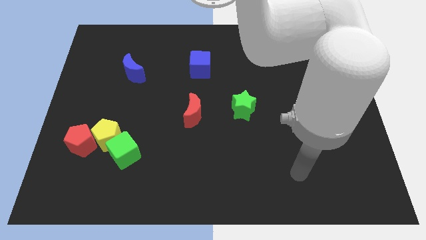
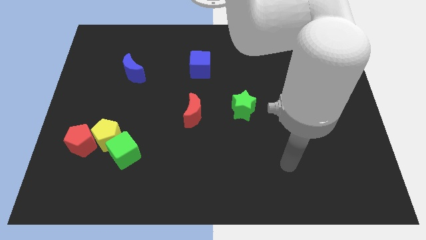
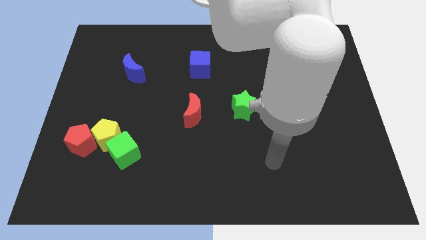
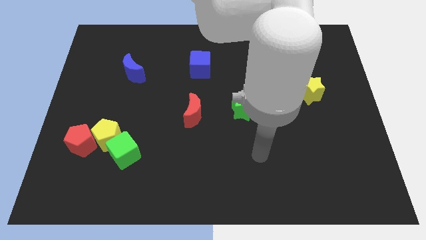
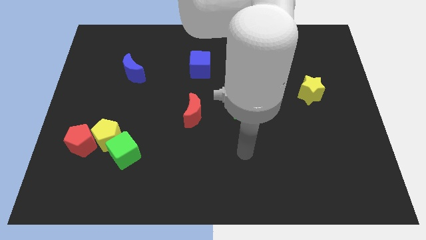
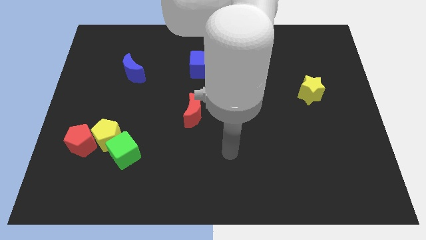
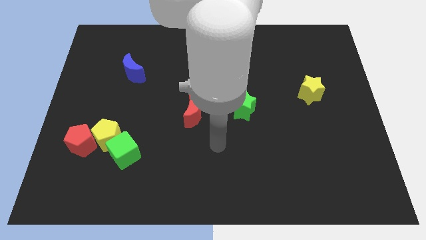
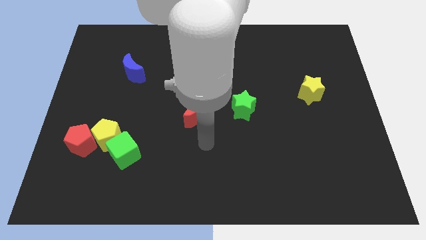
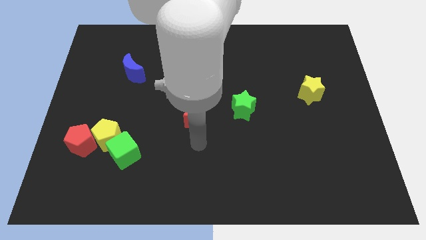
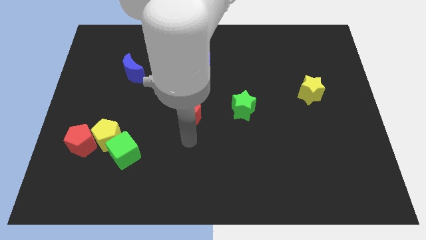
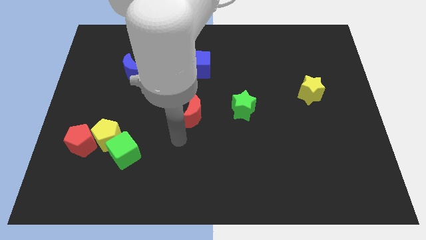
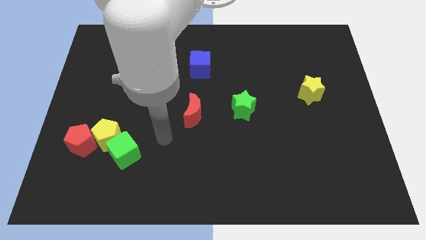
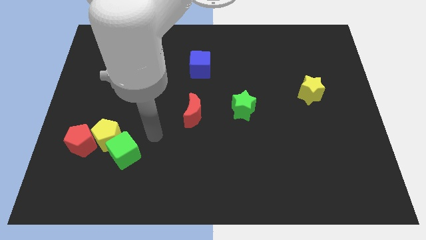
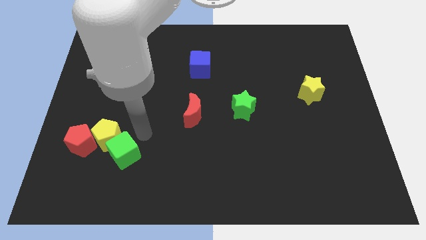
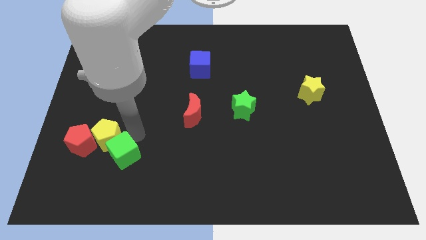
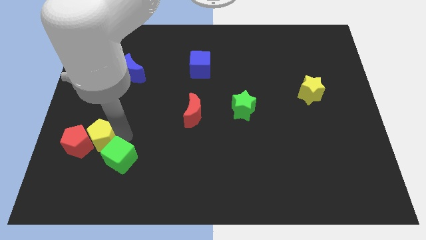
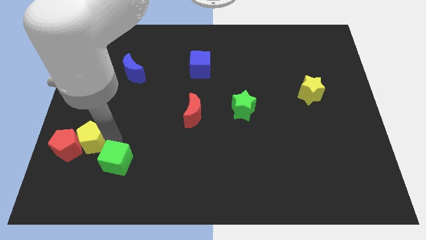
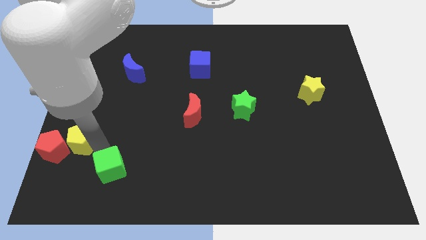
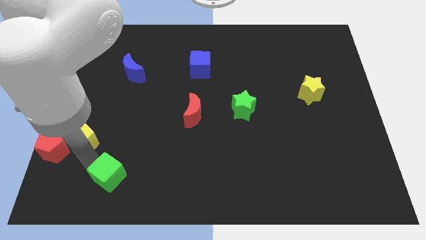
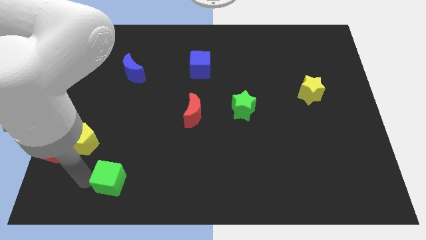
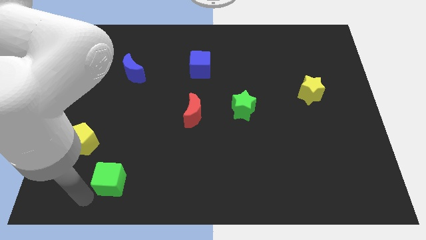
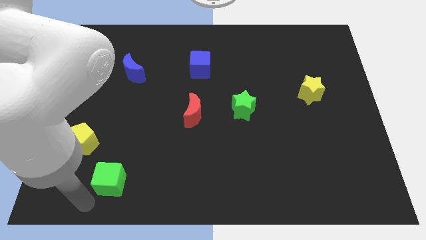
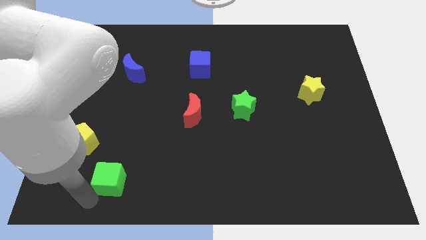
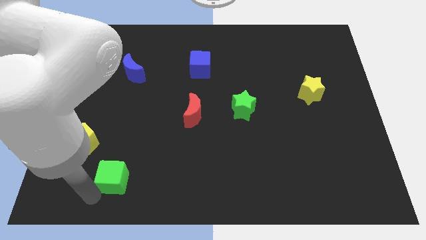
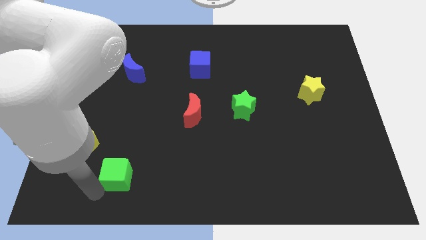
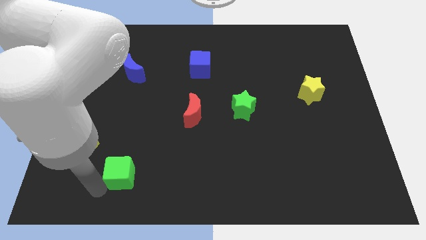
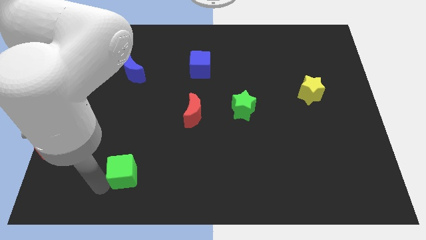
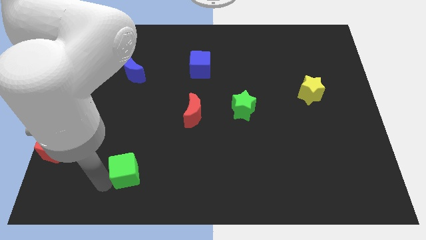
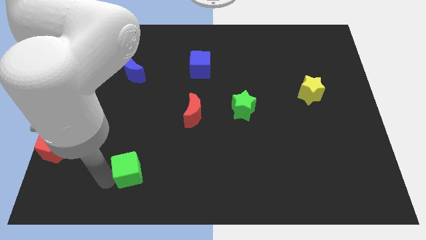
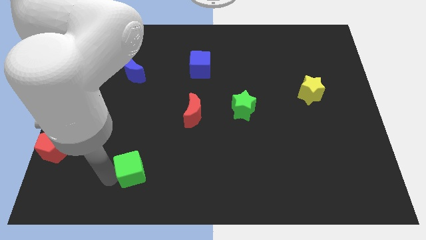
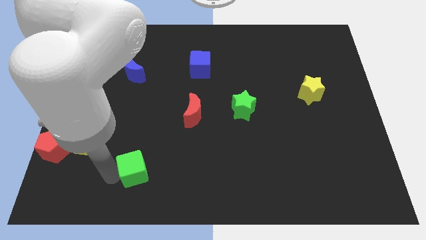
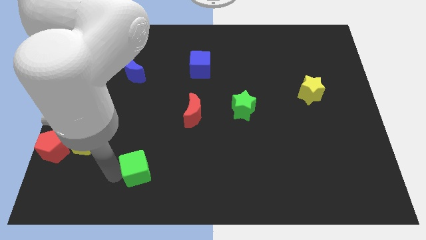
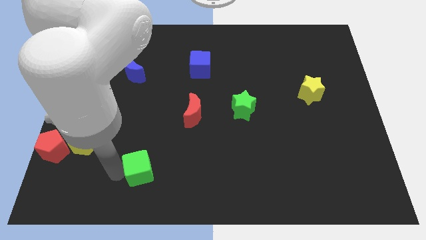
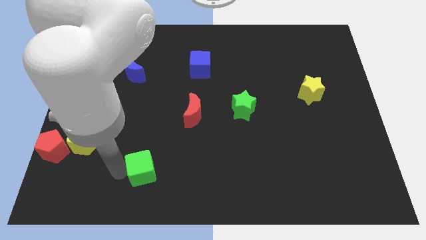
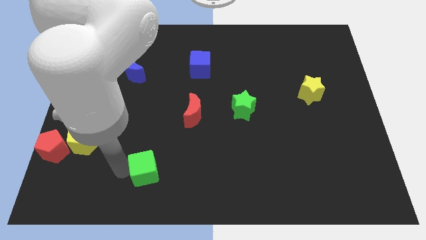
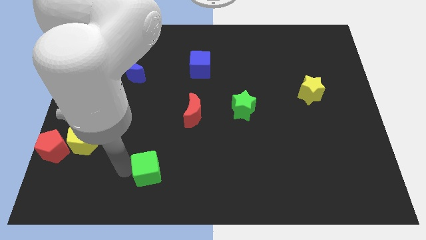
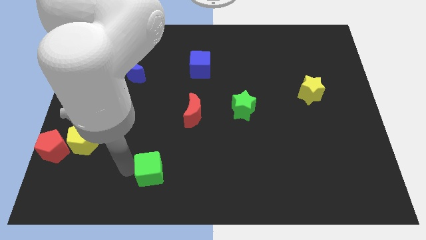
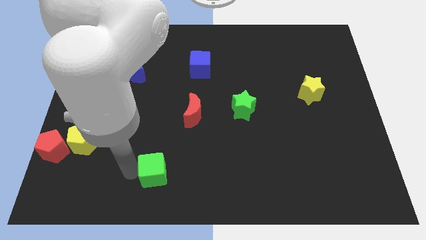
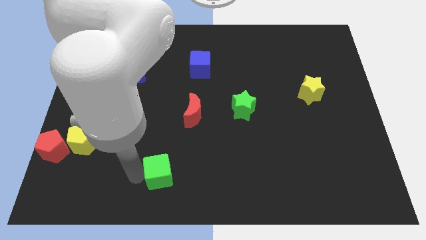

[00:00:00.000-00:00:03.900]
move the green cube a little right

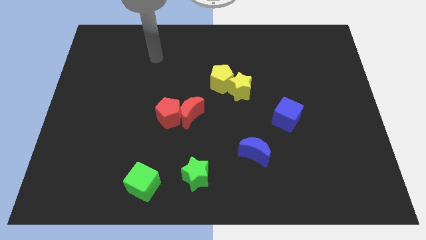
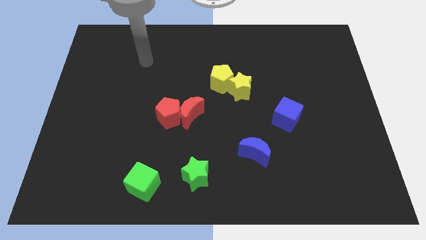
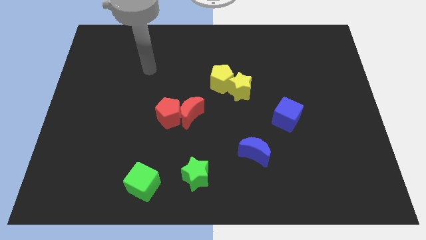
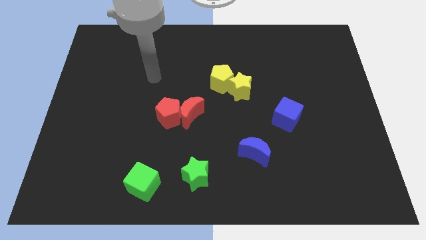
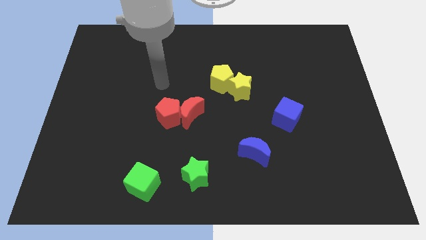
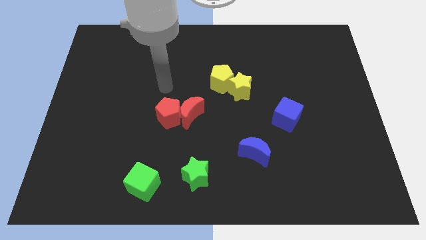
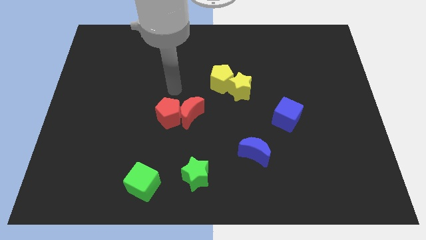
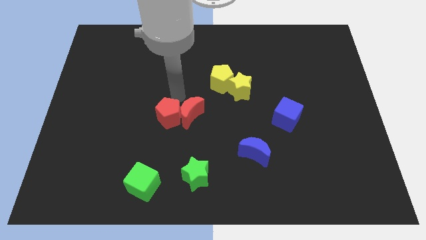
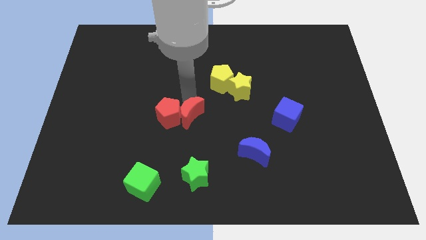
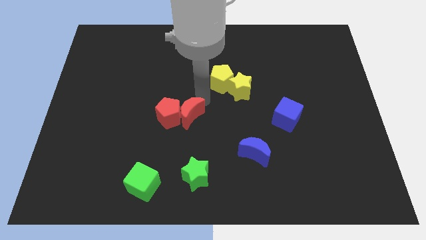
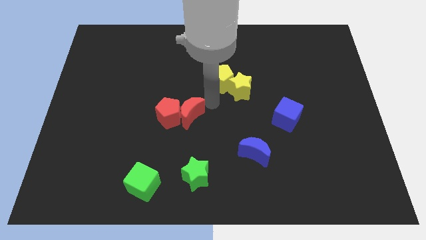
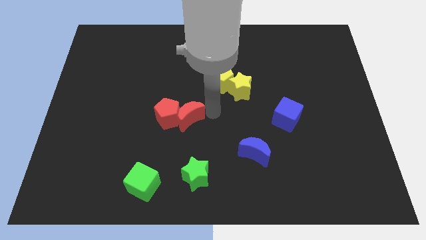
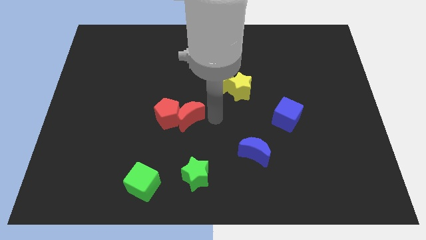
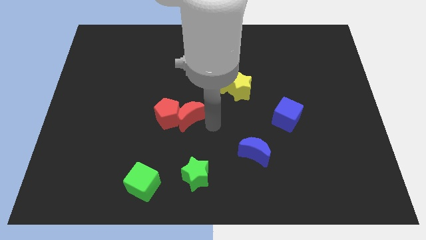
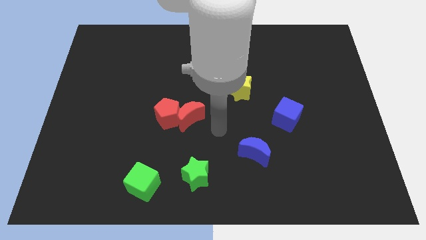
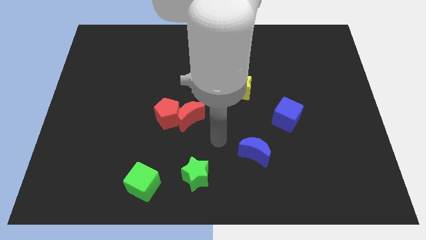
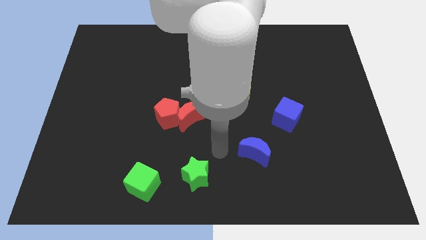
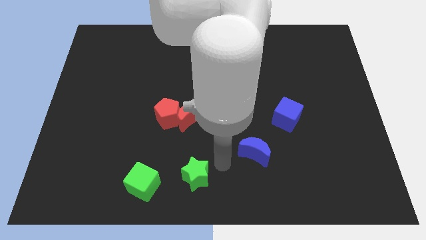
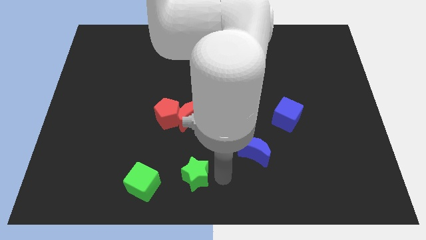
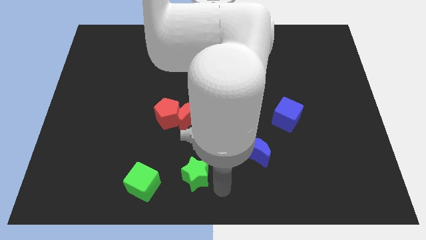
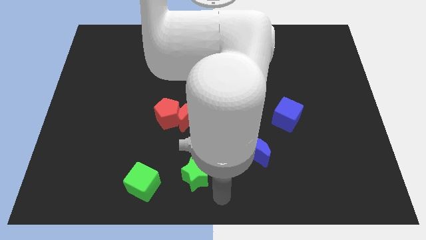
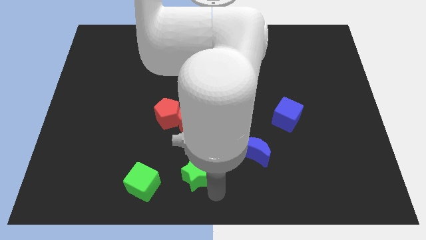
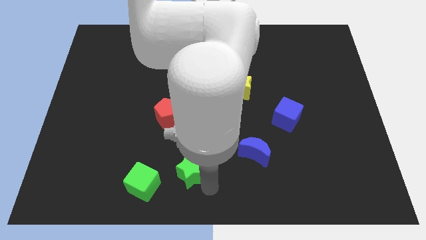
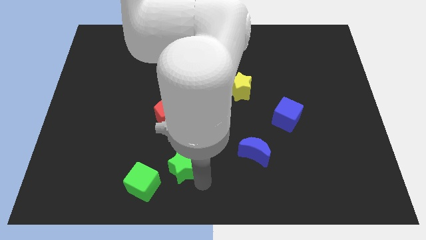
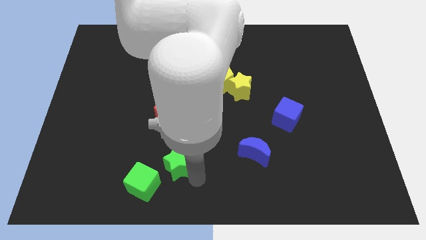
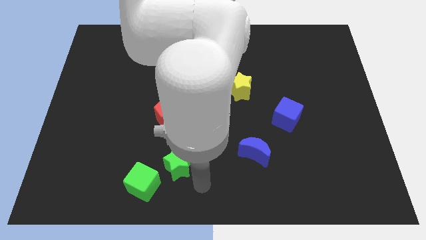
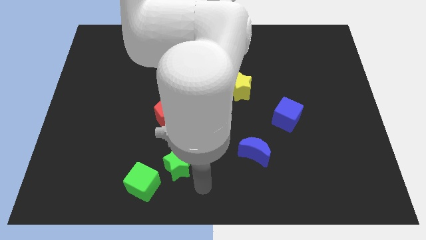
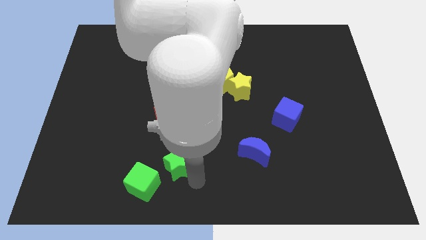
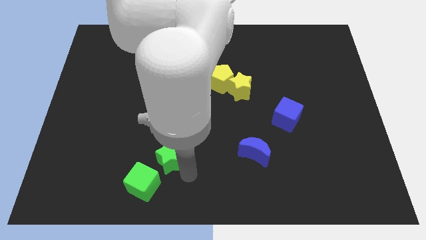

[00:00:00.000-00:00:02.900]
slightly slide the green star upwards and to the left

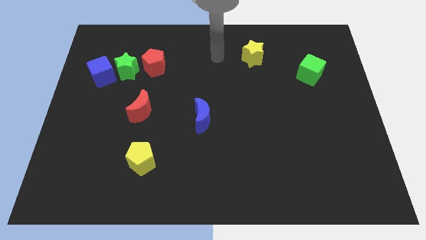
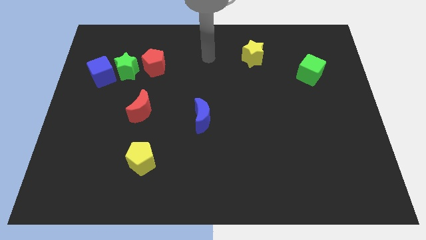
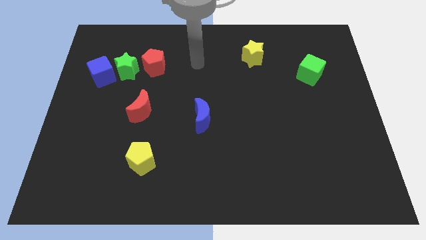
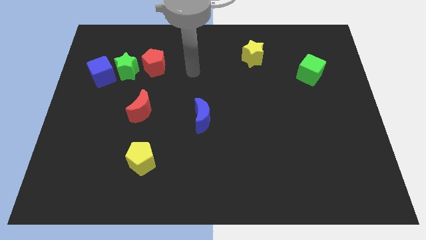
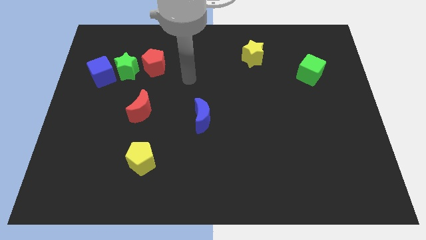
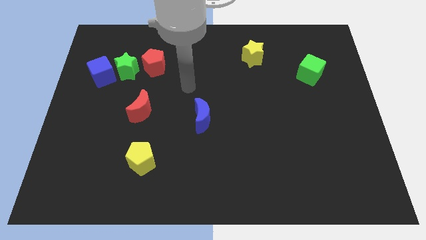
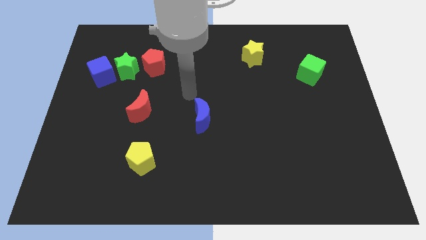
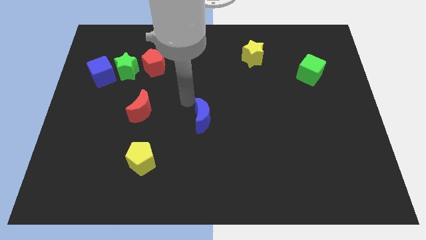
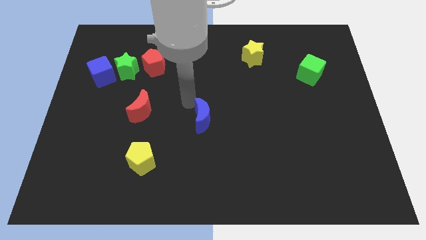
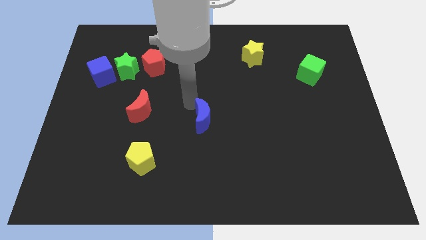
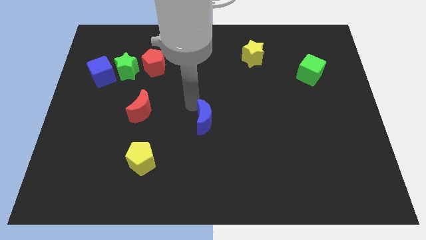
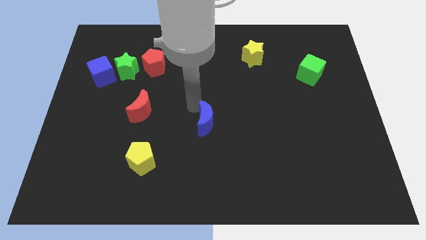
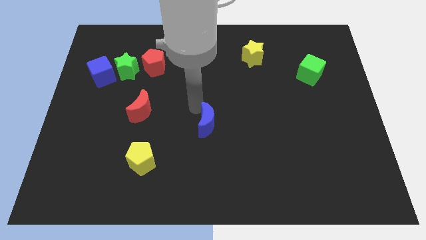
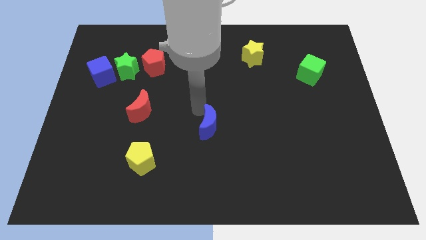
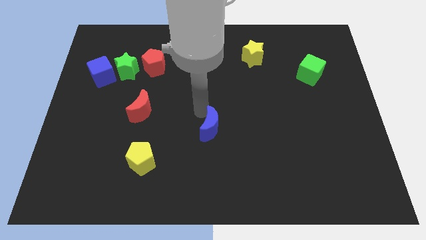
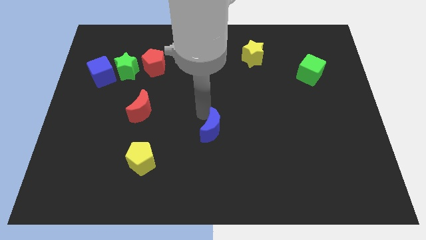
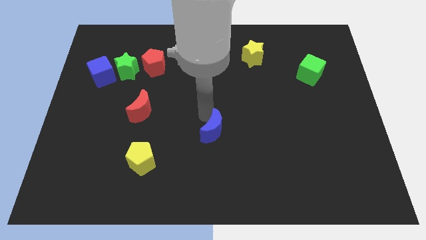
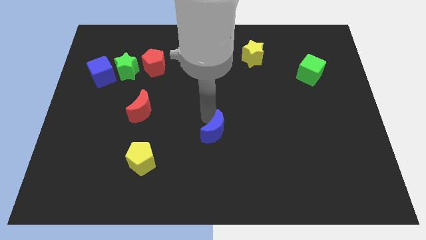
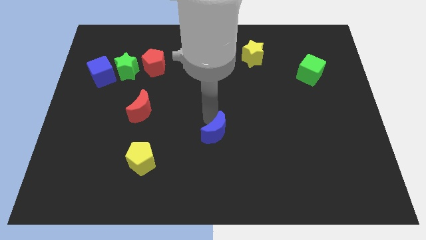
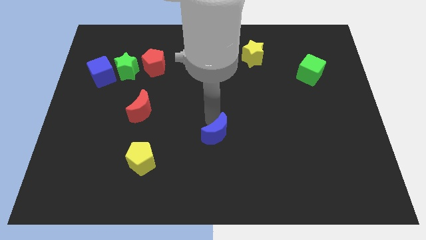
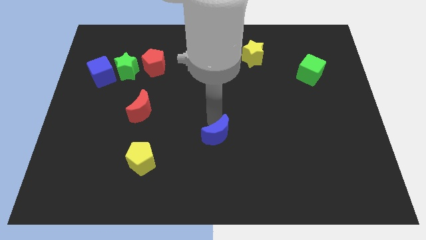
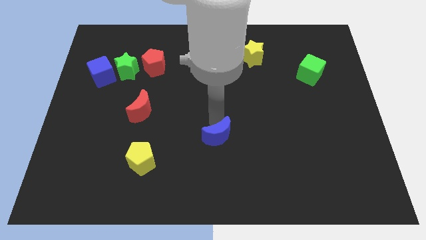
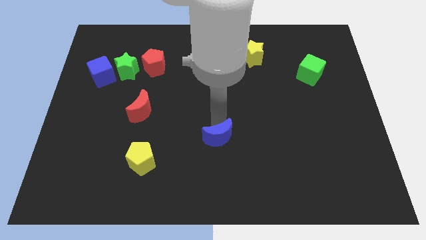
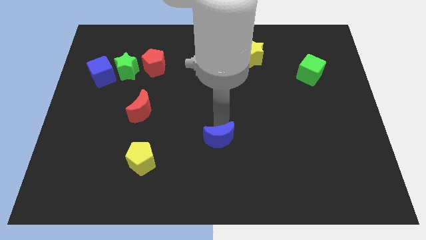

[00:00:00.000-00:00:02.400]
move the blue moon down and right diagonally somewhat
